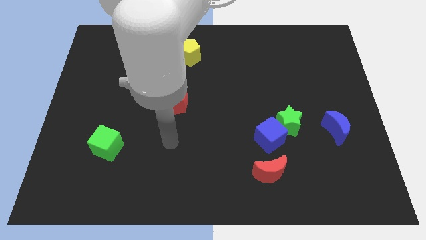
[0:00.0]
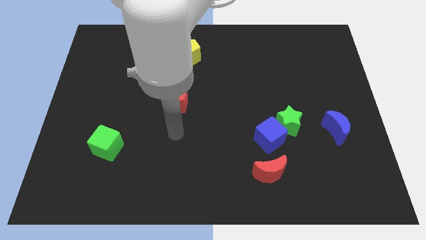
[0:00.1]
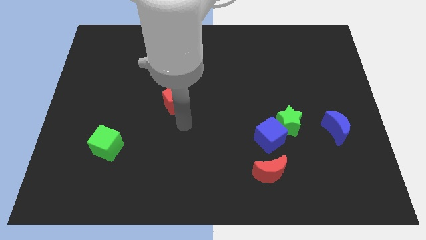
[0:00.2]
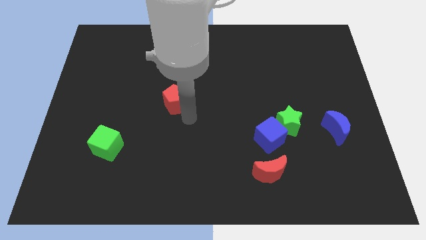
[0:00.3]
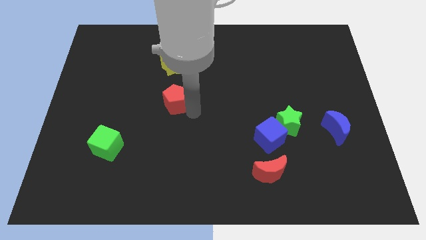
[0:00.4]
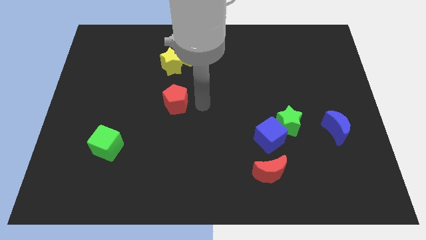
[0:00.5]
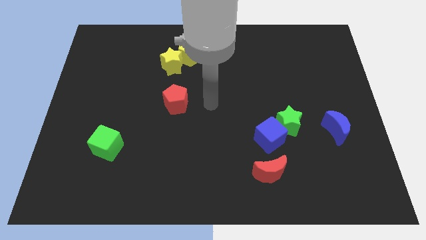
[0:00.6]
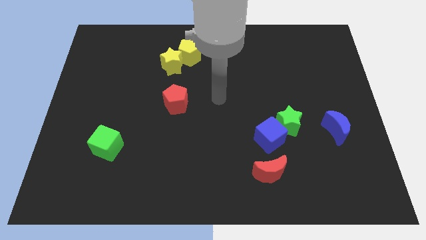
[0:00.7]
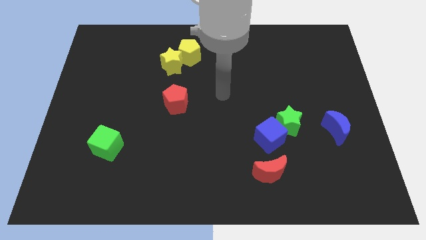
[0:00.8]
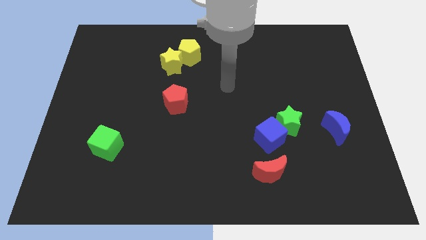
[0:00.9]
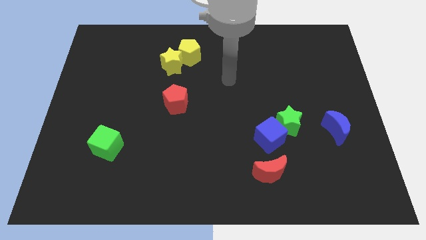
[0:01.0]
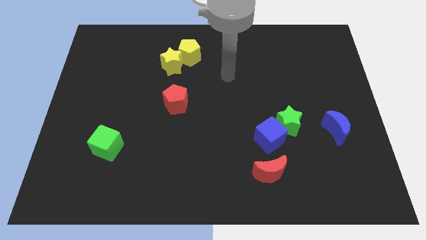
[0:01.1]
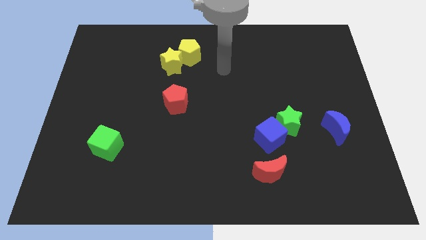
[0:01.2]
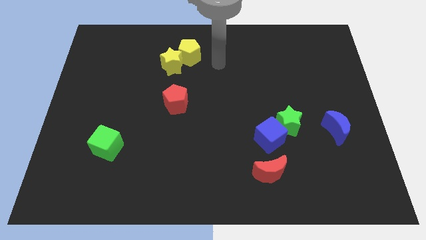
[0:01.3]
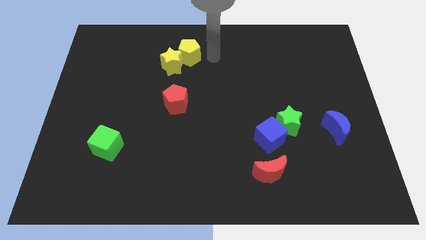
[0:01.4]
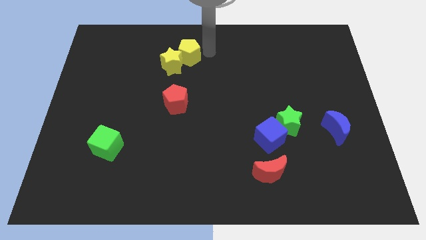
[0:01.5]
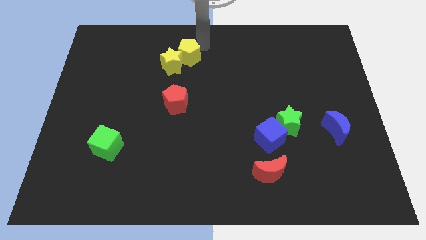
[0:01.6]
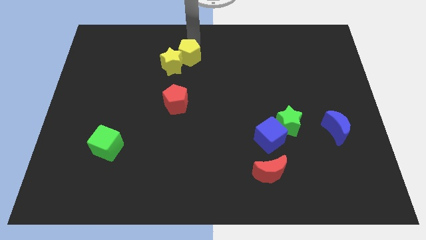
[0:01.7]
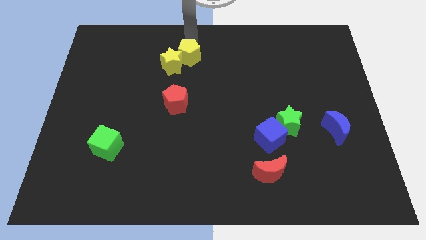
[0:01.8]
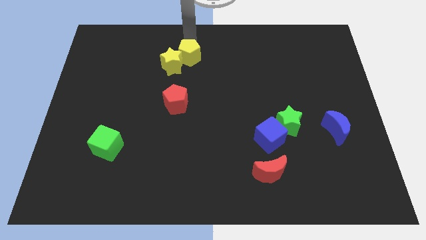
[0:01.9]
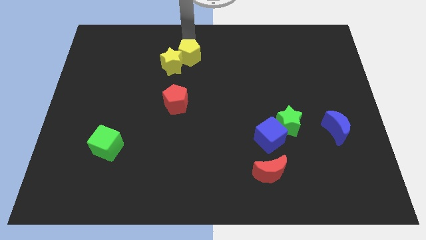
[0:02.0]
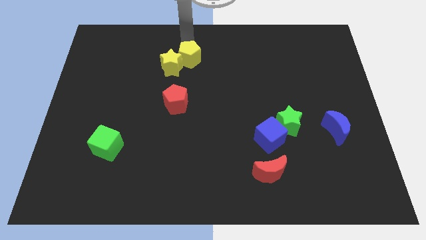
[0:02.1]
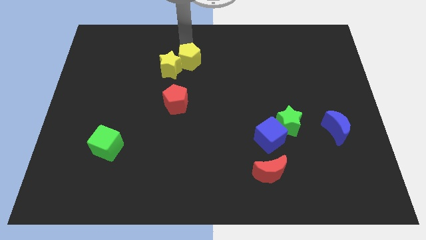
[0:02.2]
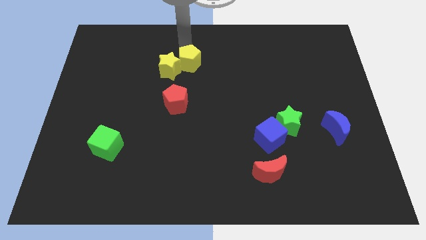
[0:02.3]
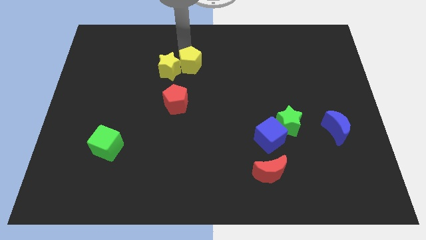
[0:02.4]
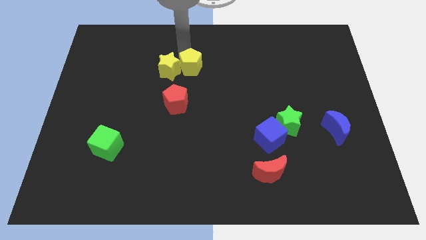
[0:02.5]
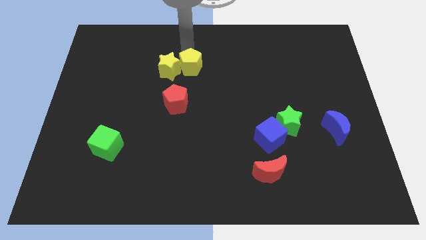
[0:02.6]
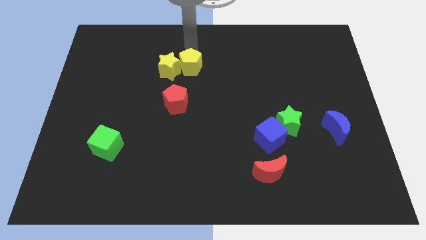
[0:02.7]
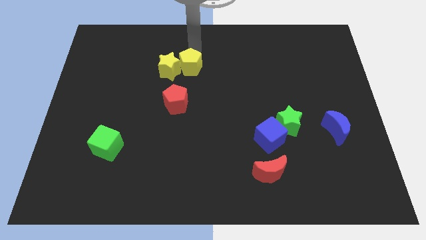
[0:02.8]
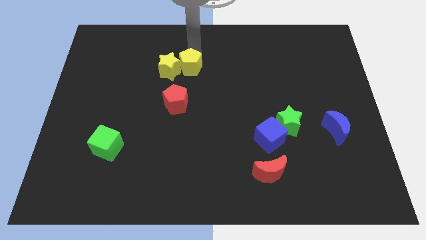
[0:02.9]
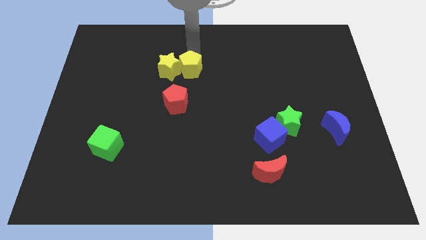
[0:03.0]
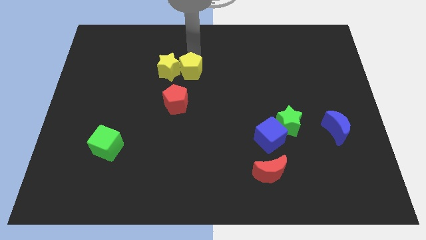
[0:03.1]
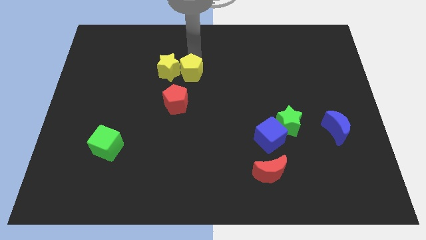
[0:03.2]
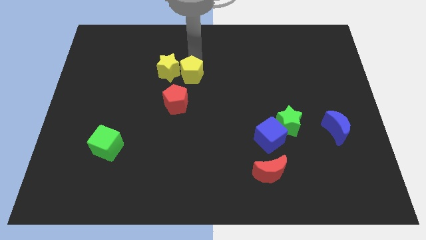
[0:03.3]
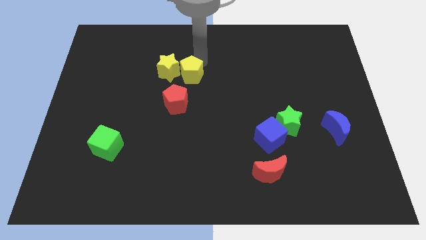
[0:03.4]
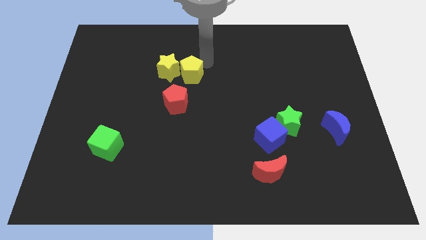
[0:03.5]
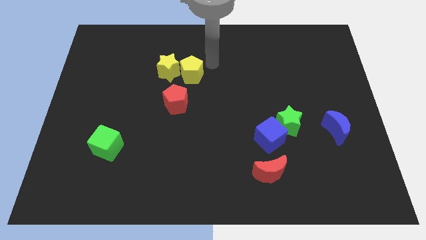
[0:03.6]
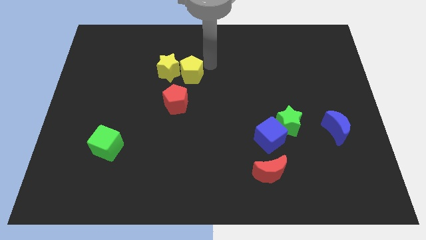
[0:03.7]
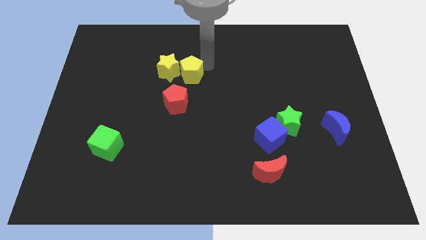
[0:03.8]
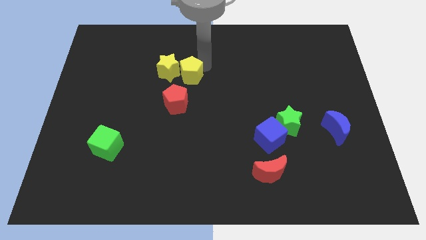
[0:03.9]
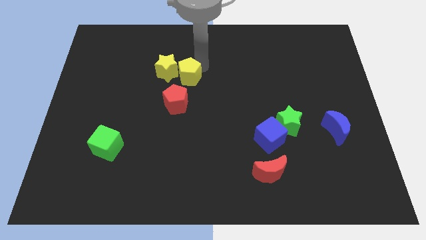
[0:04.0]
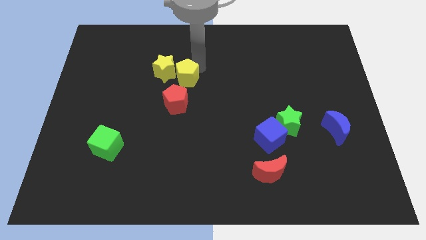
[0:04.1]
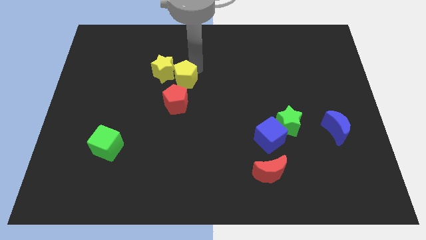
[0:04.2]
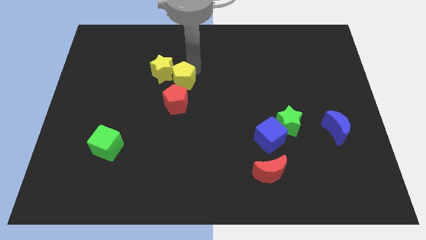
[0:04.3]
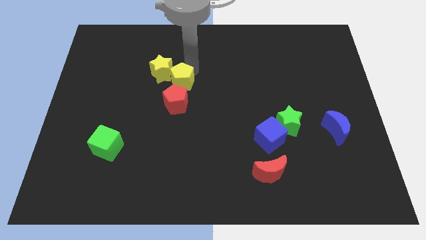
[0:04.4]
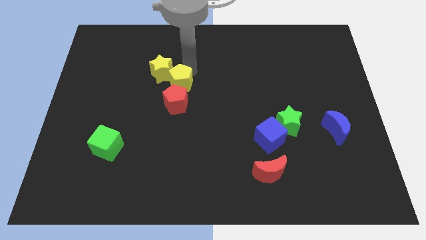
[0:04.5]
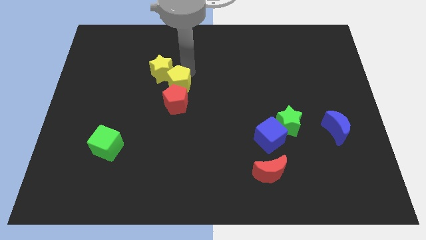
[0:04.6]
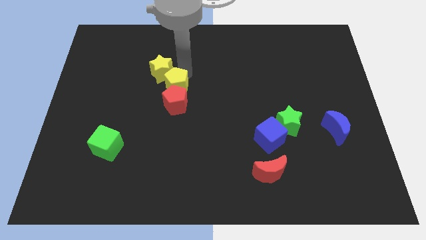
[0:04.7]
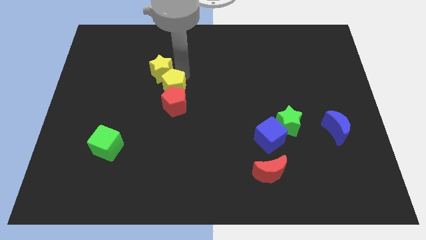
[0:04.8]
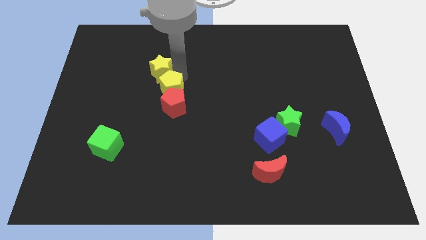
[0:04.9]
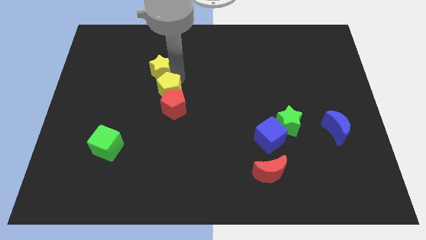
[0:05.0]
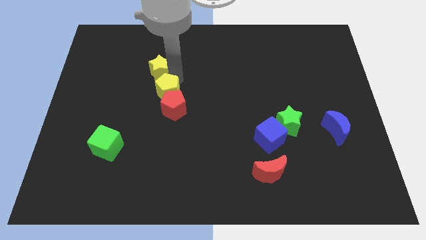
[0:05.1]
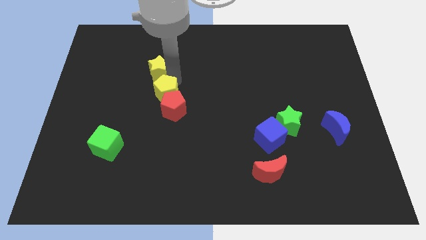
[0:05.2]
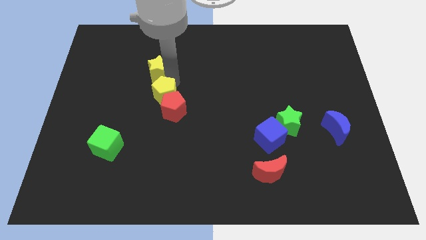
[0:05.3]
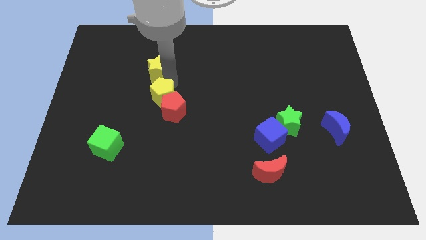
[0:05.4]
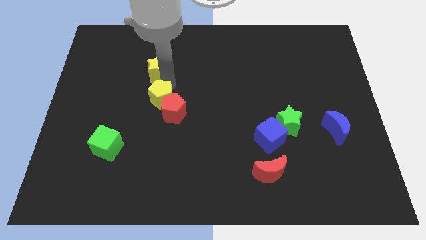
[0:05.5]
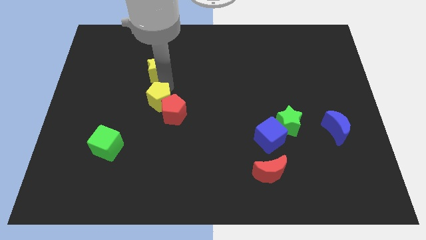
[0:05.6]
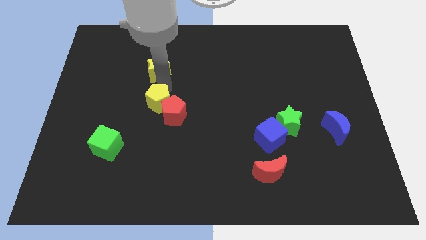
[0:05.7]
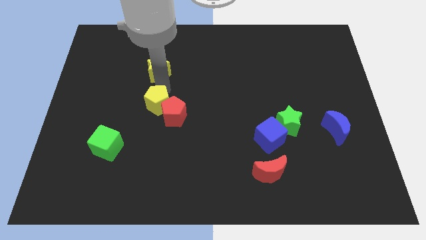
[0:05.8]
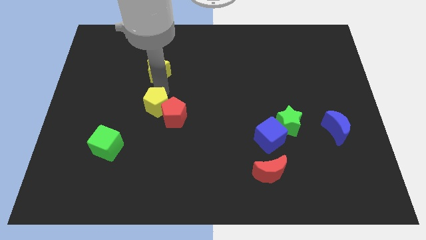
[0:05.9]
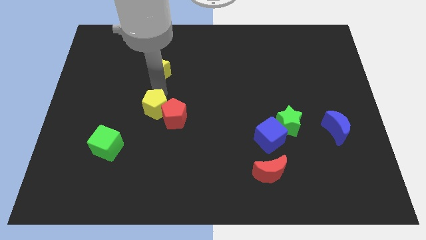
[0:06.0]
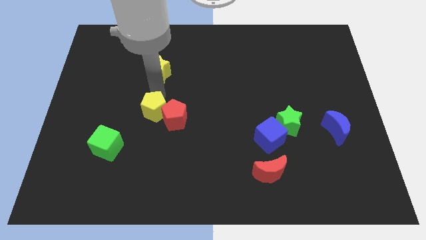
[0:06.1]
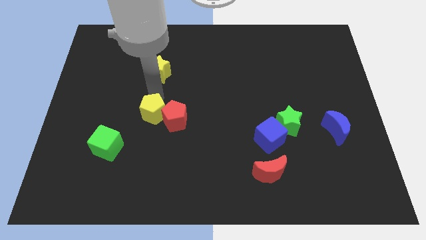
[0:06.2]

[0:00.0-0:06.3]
put the yellow pentagon to the top right side of the green cube

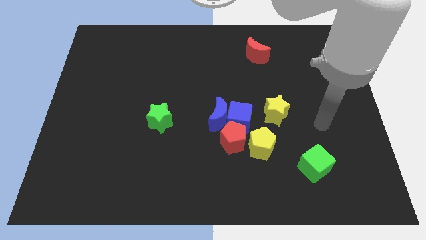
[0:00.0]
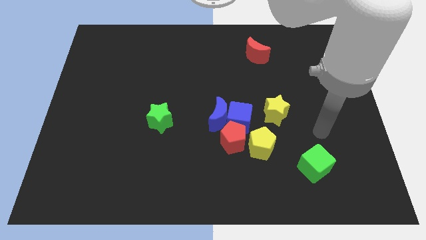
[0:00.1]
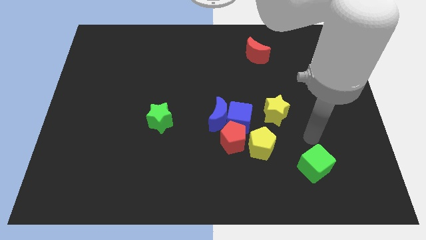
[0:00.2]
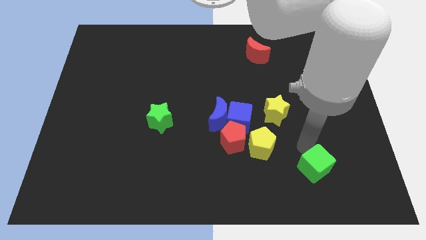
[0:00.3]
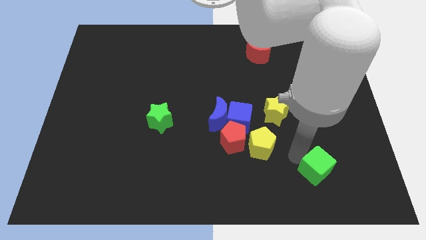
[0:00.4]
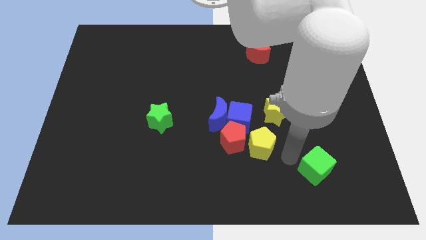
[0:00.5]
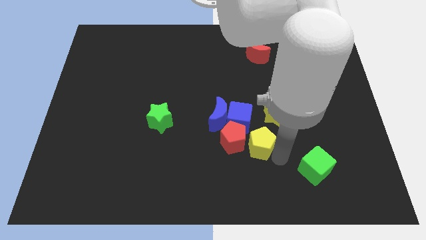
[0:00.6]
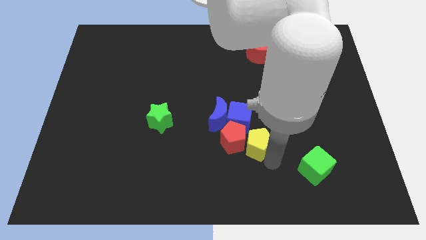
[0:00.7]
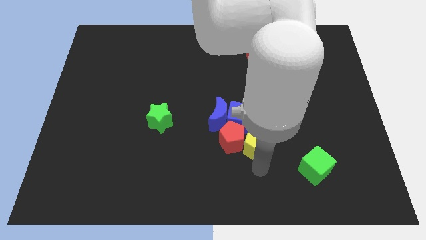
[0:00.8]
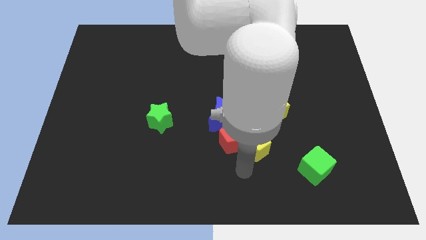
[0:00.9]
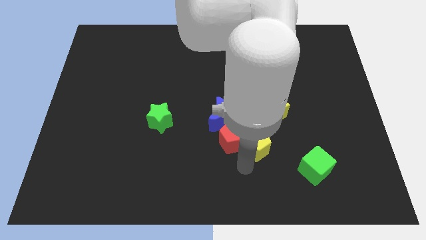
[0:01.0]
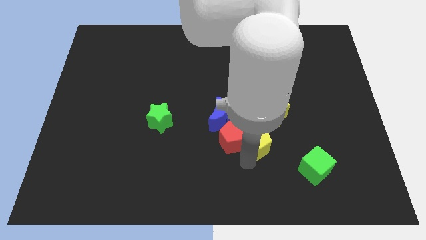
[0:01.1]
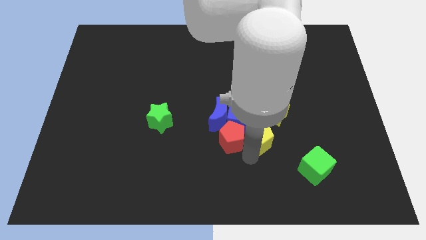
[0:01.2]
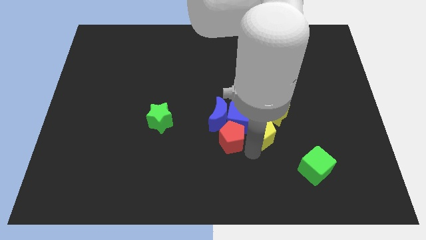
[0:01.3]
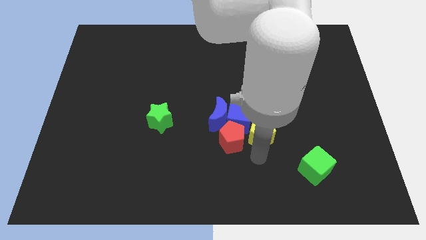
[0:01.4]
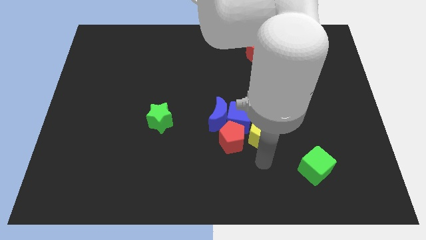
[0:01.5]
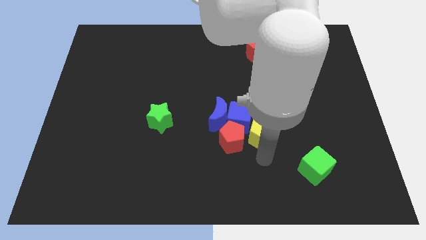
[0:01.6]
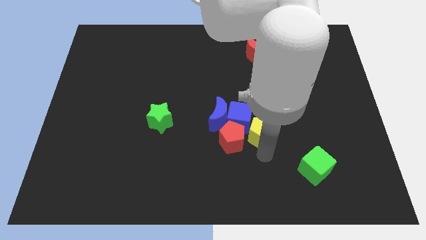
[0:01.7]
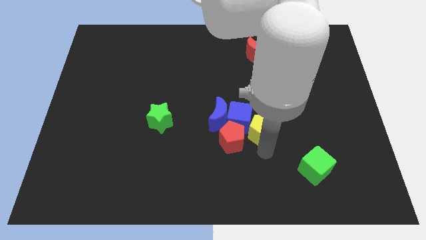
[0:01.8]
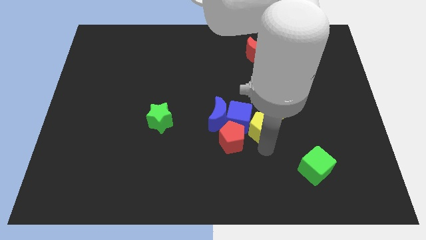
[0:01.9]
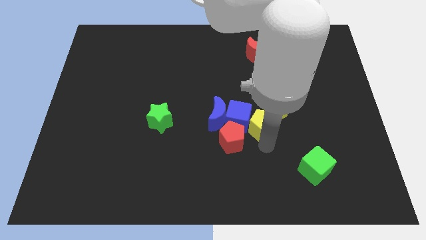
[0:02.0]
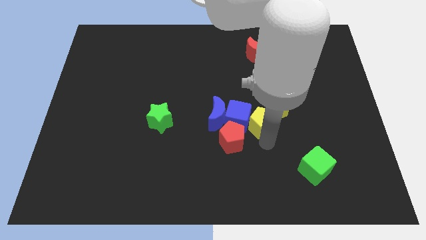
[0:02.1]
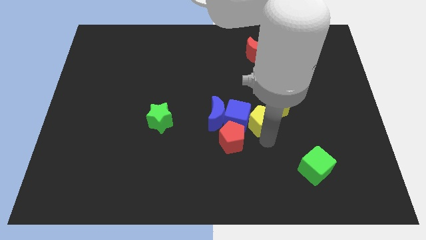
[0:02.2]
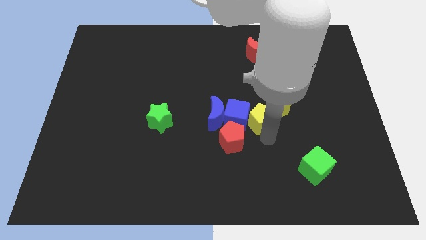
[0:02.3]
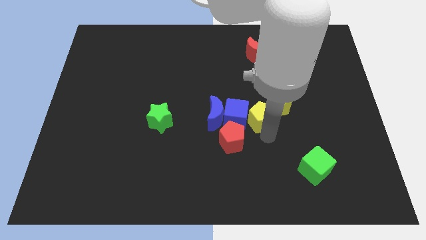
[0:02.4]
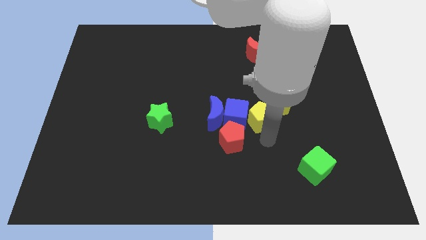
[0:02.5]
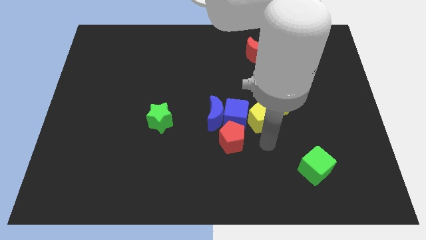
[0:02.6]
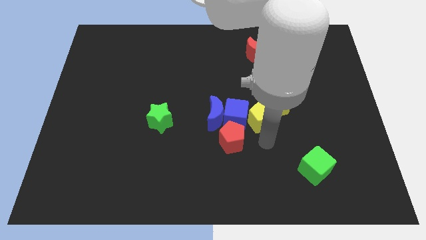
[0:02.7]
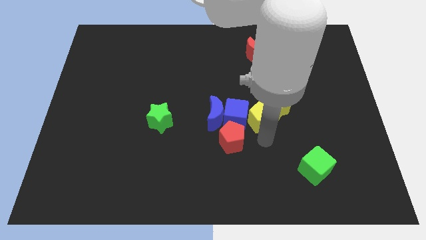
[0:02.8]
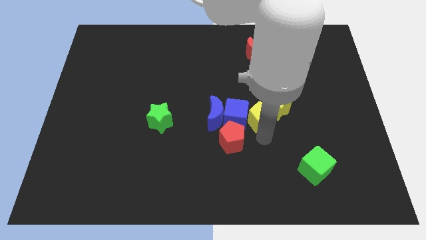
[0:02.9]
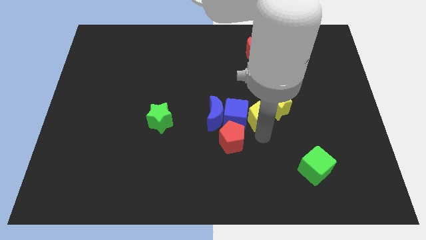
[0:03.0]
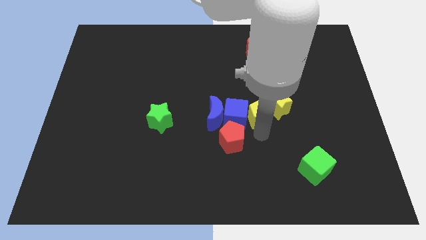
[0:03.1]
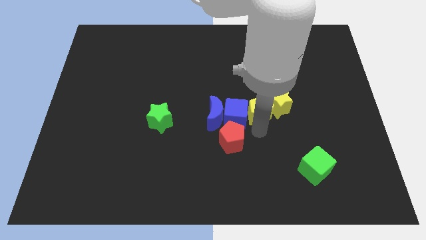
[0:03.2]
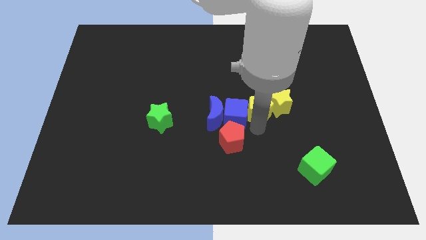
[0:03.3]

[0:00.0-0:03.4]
put the yellow pentagon diagonally up and to the left of the yellow star
